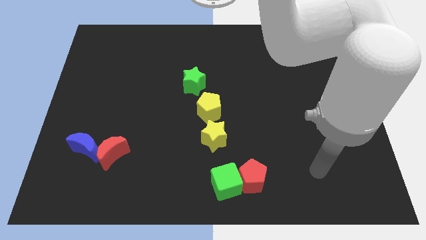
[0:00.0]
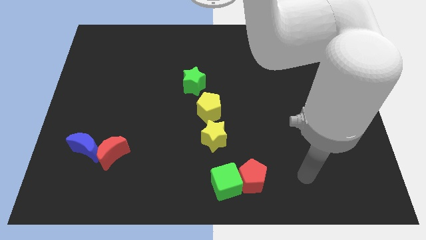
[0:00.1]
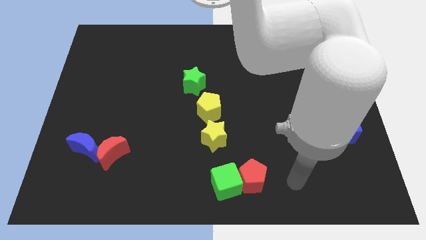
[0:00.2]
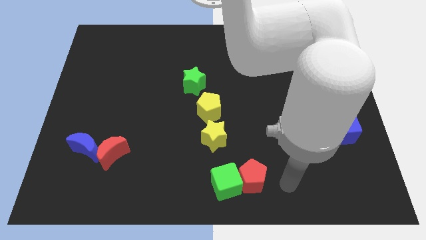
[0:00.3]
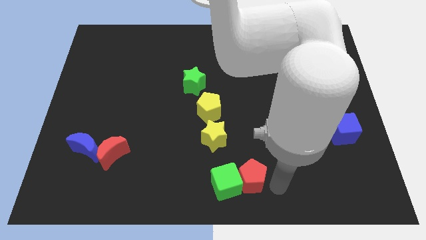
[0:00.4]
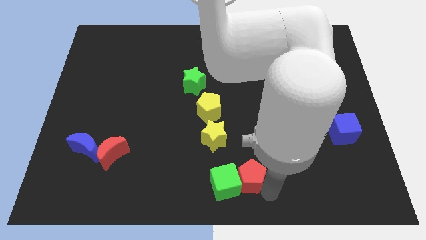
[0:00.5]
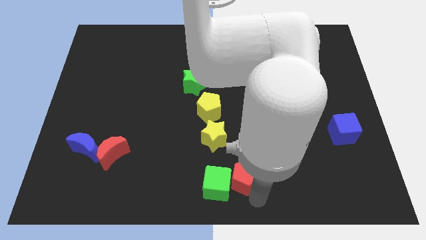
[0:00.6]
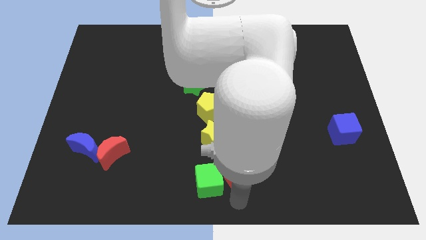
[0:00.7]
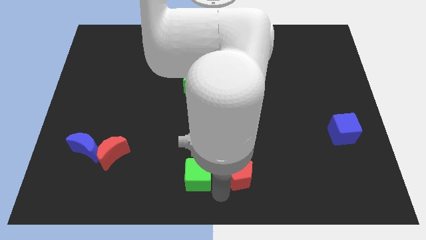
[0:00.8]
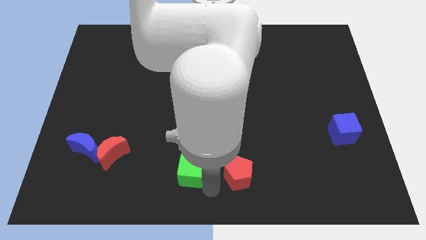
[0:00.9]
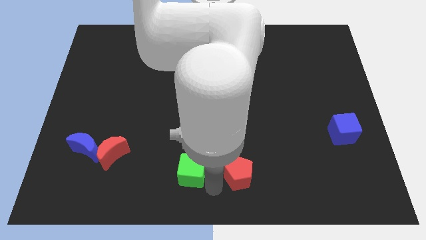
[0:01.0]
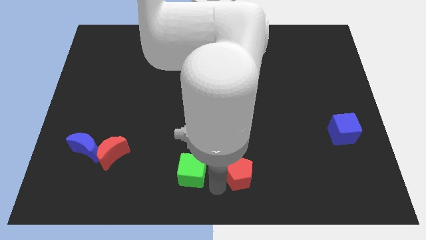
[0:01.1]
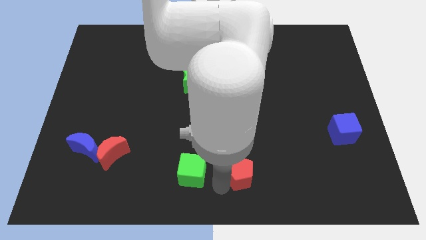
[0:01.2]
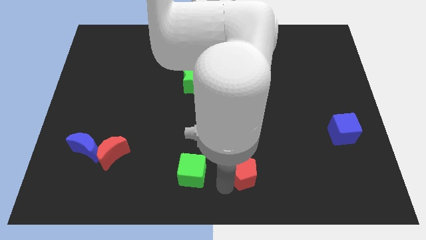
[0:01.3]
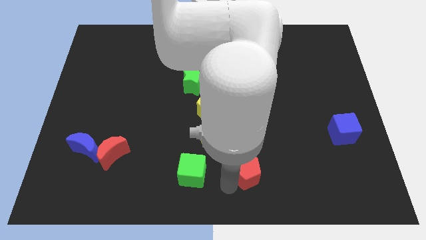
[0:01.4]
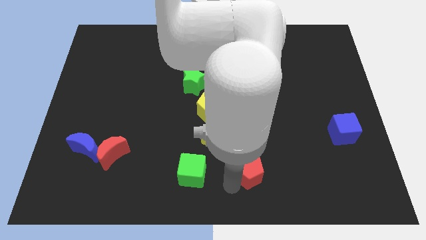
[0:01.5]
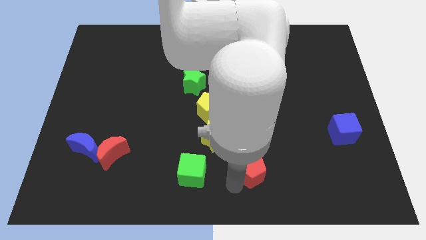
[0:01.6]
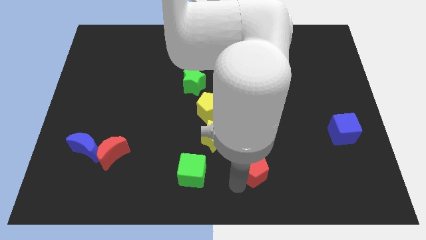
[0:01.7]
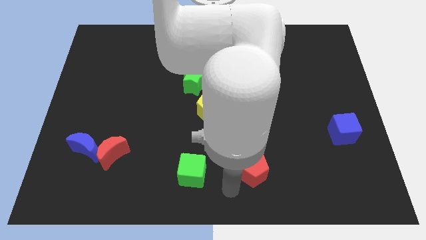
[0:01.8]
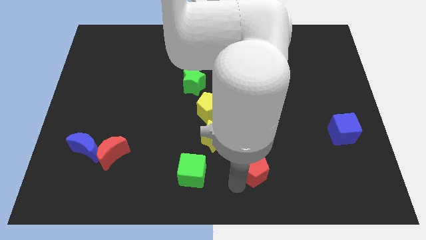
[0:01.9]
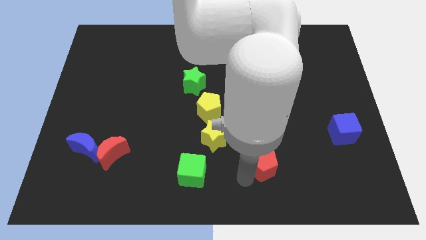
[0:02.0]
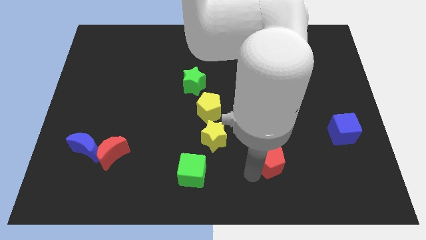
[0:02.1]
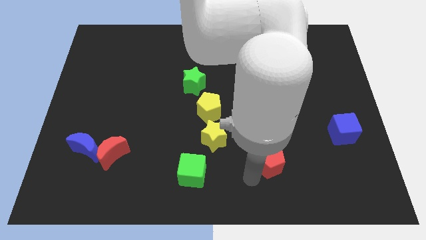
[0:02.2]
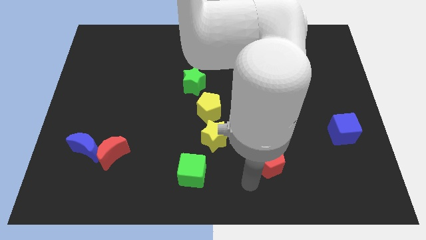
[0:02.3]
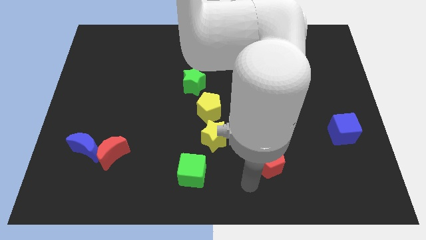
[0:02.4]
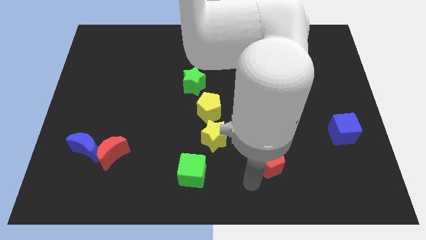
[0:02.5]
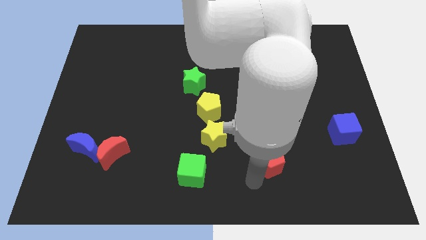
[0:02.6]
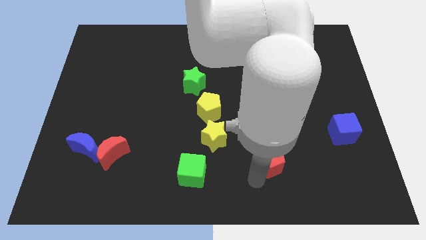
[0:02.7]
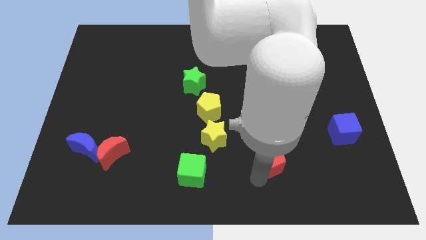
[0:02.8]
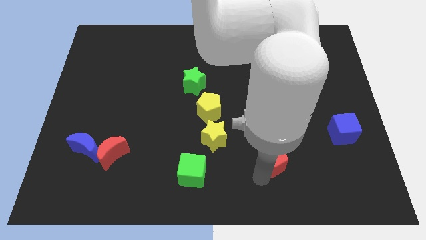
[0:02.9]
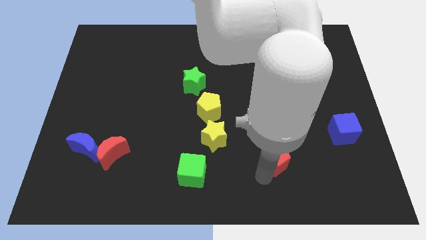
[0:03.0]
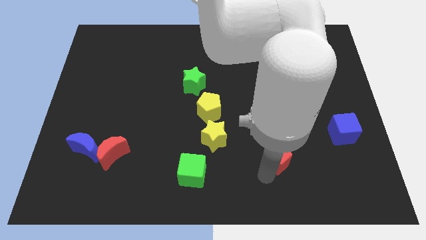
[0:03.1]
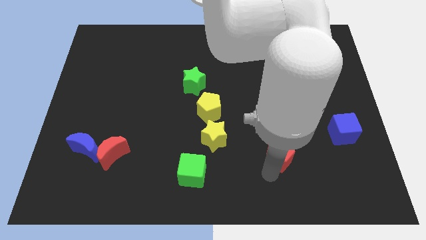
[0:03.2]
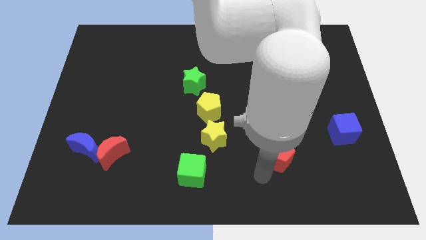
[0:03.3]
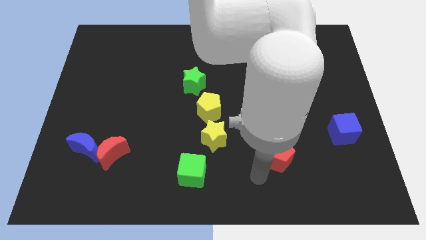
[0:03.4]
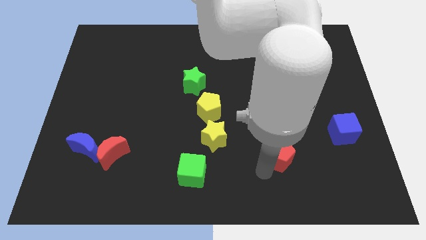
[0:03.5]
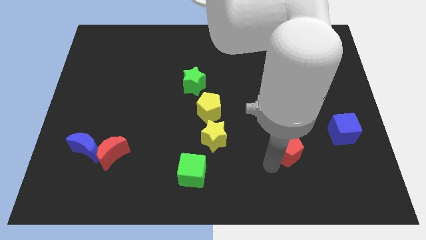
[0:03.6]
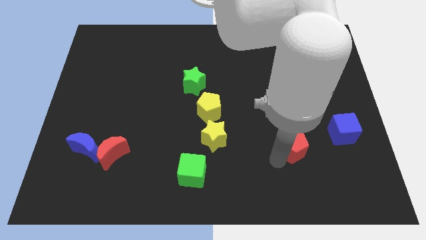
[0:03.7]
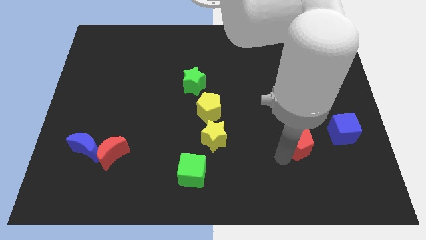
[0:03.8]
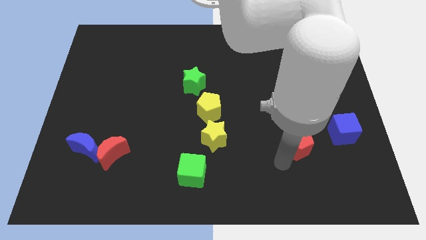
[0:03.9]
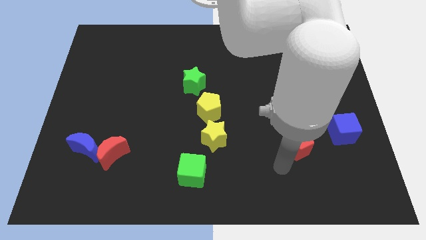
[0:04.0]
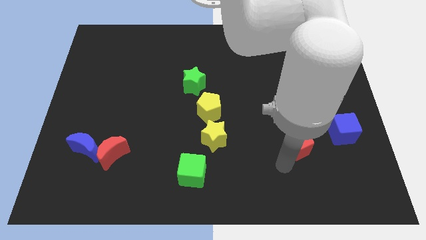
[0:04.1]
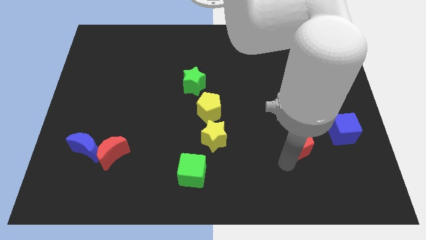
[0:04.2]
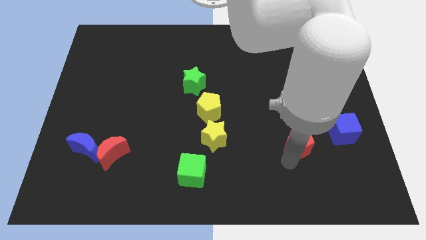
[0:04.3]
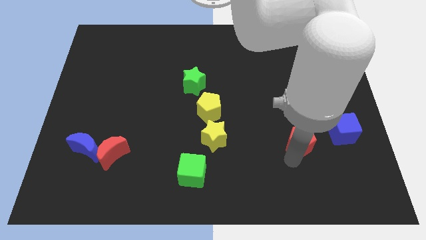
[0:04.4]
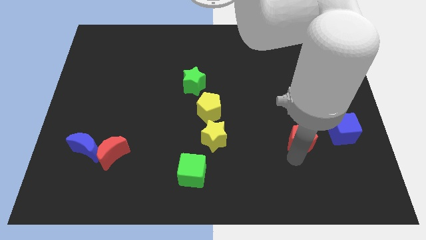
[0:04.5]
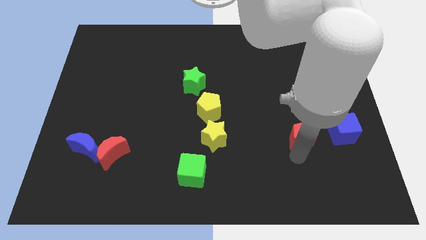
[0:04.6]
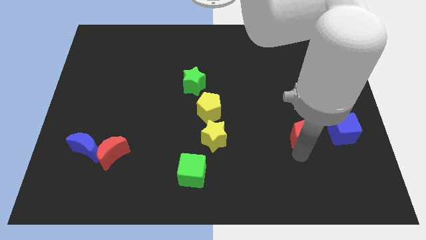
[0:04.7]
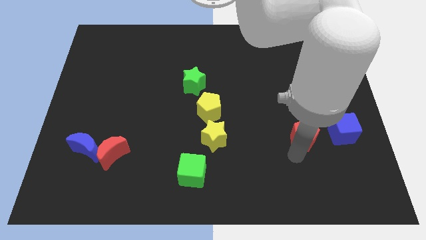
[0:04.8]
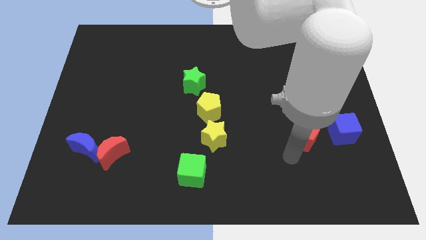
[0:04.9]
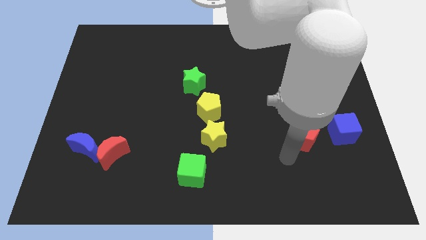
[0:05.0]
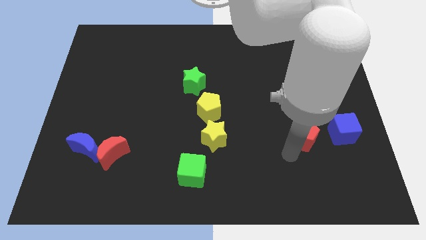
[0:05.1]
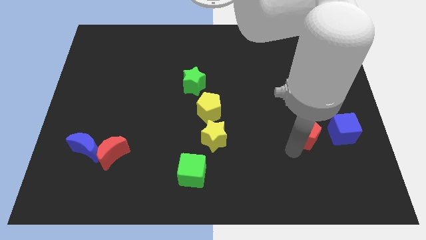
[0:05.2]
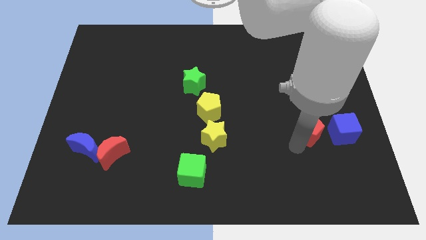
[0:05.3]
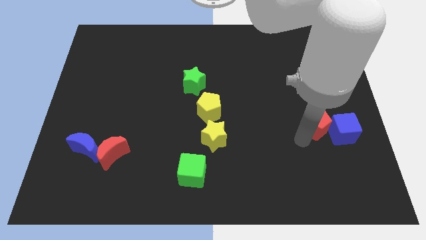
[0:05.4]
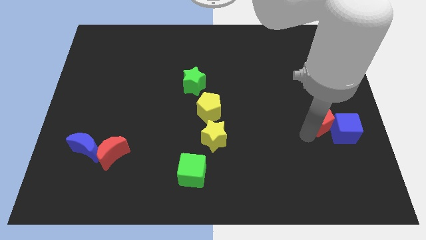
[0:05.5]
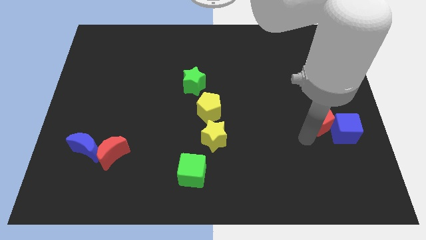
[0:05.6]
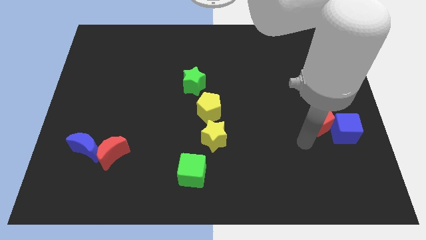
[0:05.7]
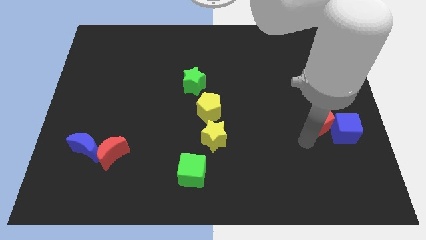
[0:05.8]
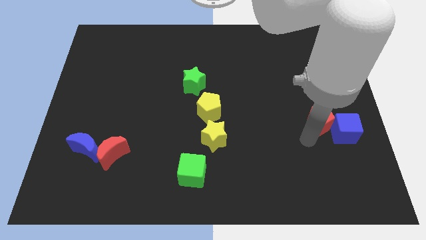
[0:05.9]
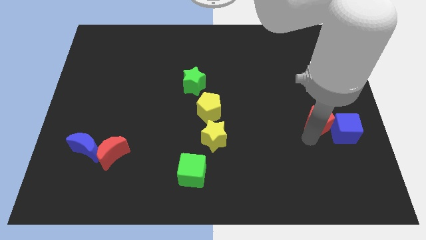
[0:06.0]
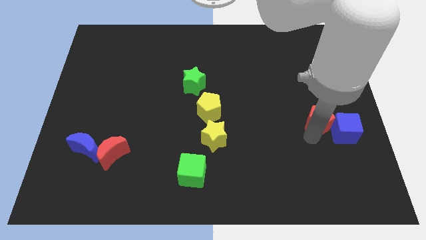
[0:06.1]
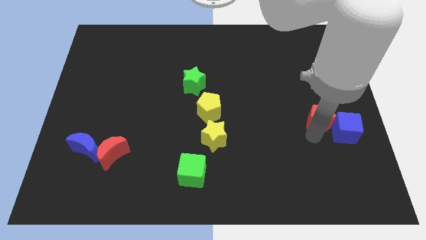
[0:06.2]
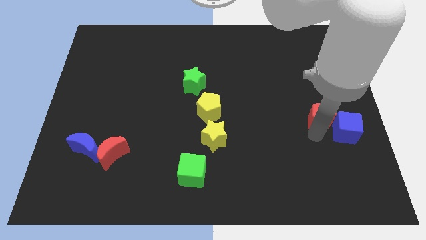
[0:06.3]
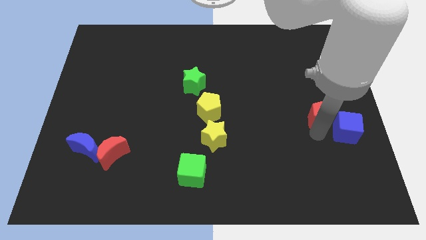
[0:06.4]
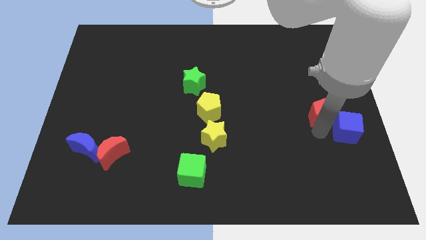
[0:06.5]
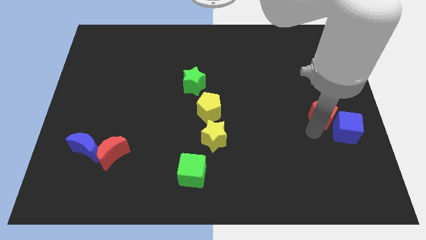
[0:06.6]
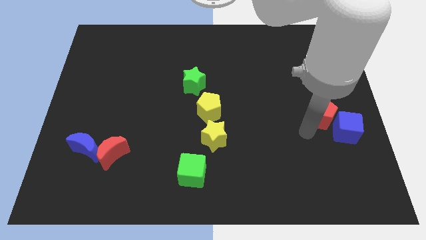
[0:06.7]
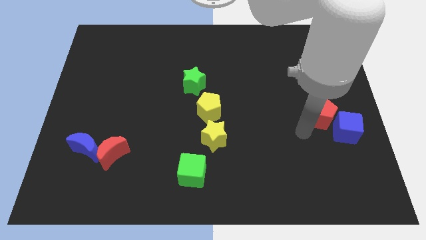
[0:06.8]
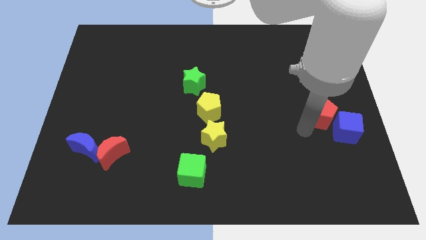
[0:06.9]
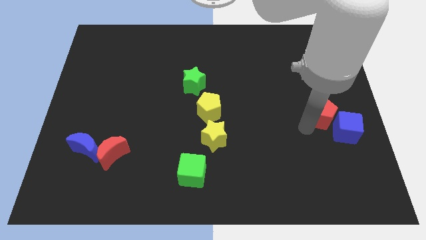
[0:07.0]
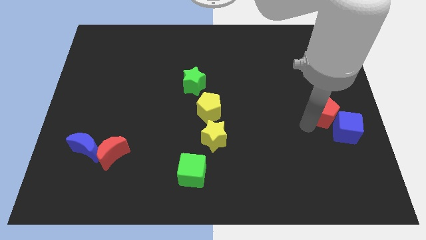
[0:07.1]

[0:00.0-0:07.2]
move the red pentagon to the right side of the board
